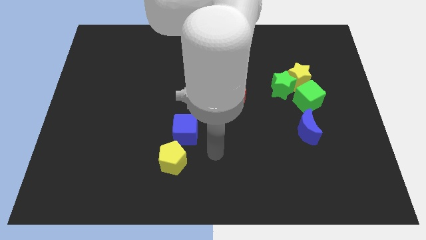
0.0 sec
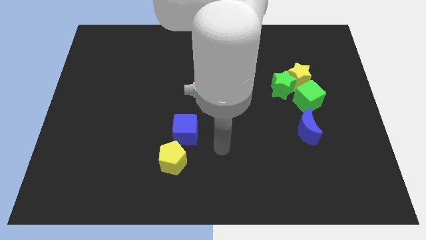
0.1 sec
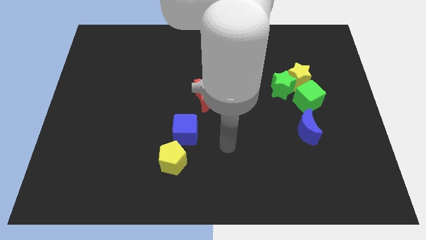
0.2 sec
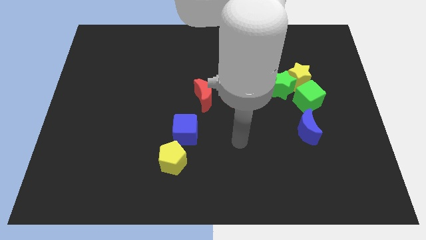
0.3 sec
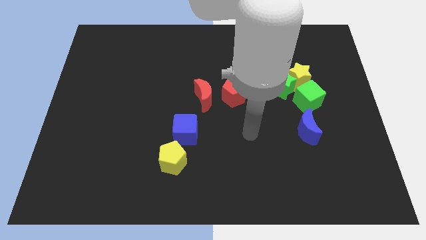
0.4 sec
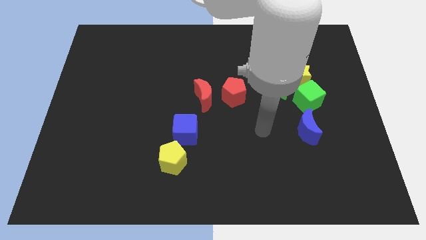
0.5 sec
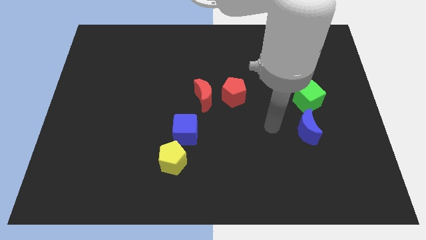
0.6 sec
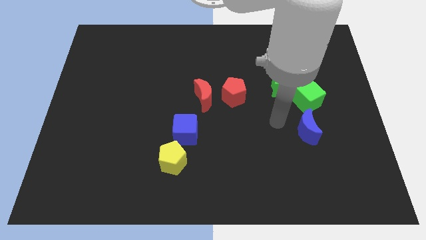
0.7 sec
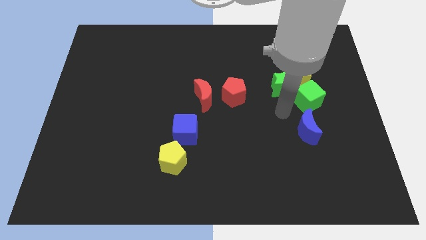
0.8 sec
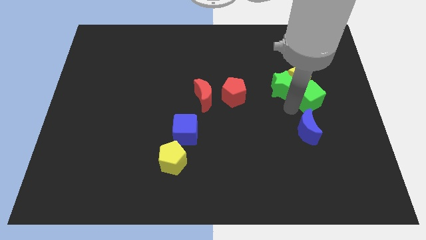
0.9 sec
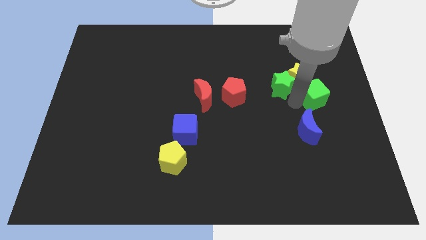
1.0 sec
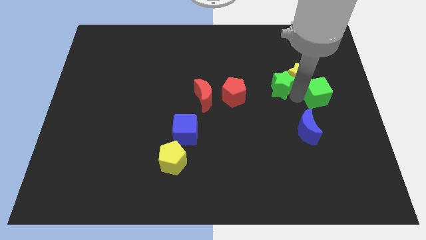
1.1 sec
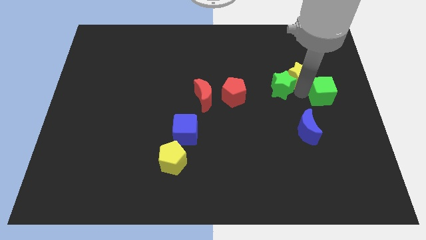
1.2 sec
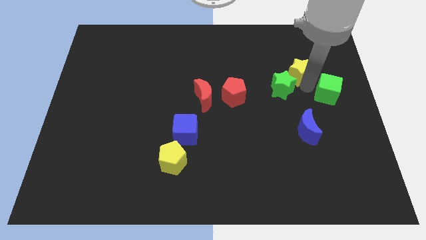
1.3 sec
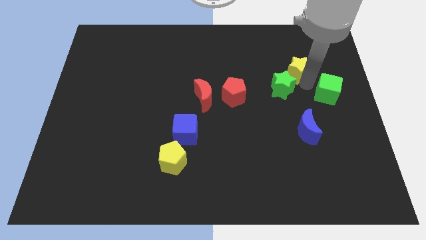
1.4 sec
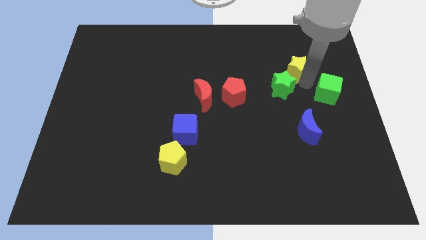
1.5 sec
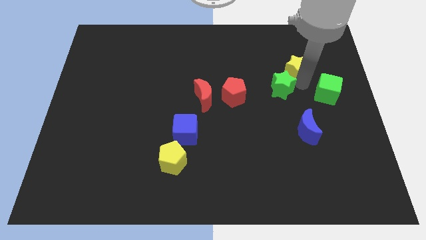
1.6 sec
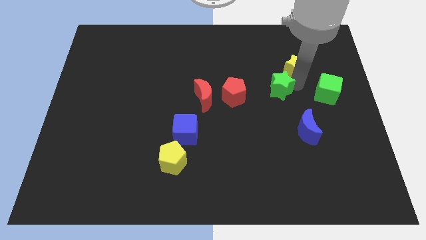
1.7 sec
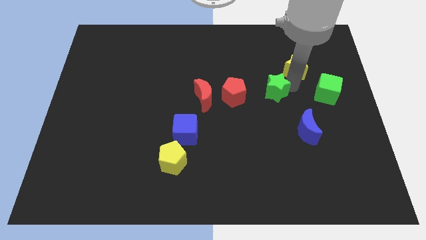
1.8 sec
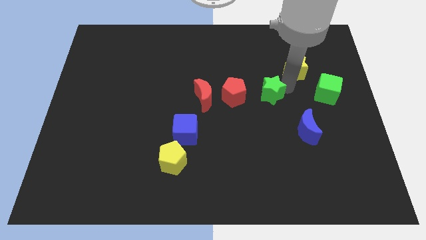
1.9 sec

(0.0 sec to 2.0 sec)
pull the green star apart from the yellow star and green cube

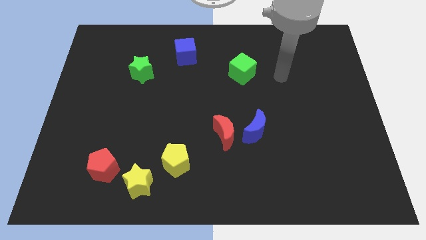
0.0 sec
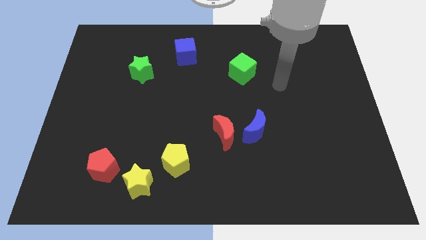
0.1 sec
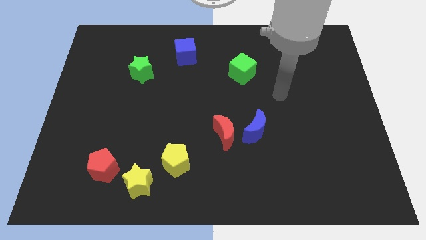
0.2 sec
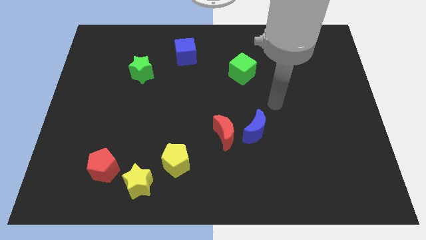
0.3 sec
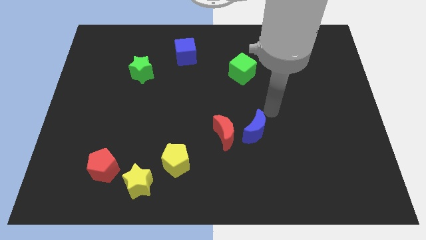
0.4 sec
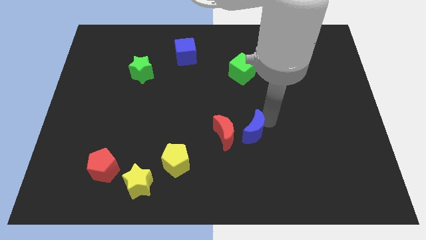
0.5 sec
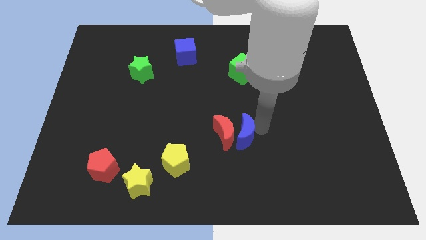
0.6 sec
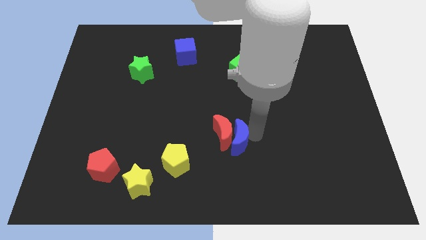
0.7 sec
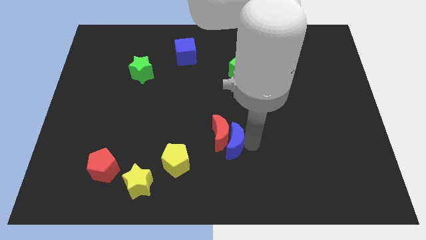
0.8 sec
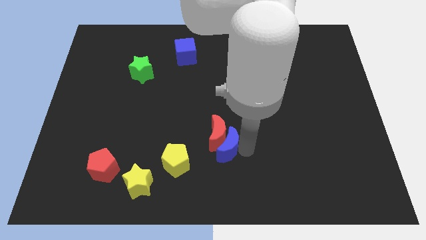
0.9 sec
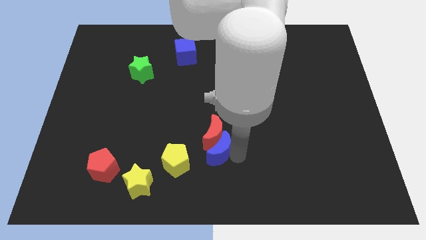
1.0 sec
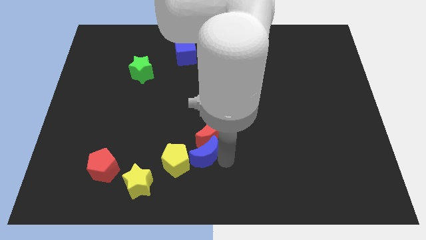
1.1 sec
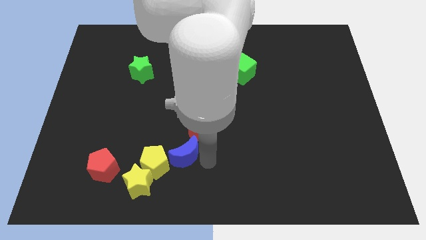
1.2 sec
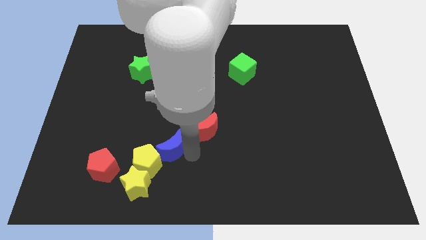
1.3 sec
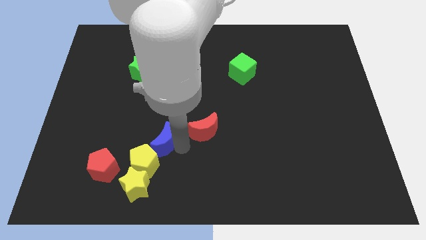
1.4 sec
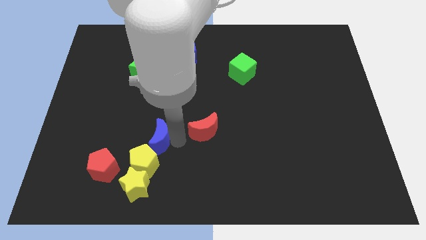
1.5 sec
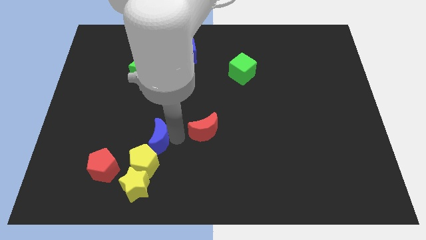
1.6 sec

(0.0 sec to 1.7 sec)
pull the red moon apart from the blue moon

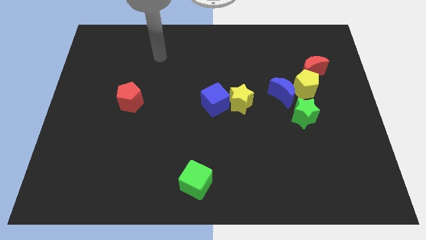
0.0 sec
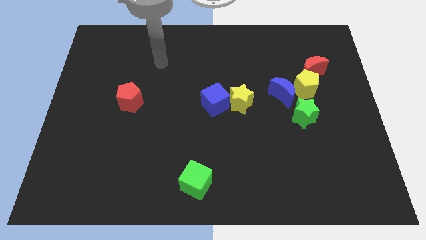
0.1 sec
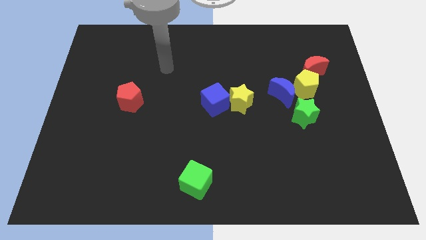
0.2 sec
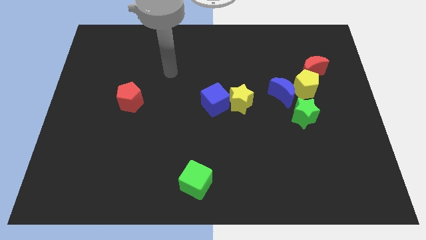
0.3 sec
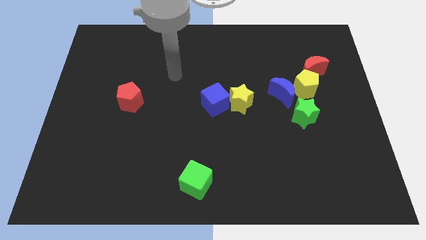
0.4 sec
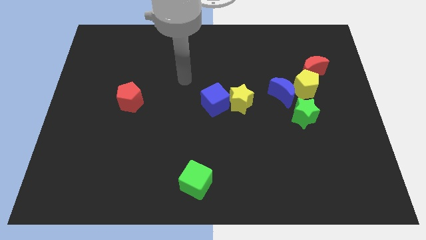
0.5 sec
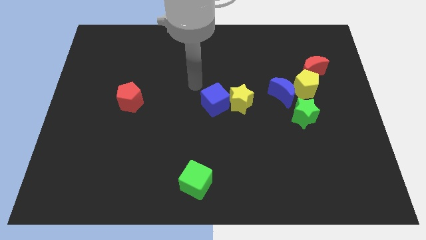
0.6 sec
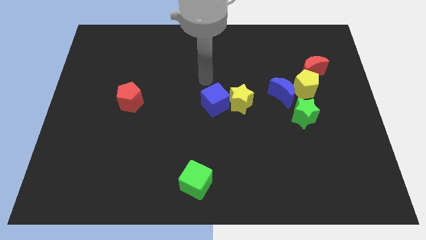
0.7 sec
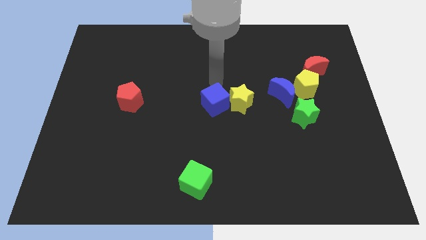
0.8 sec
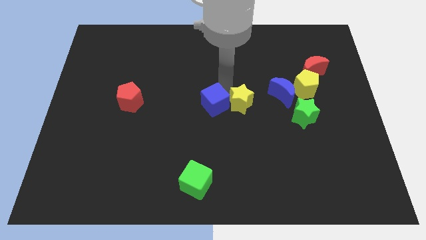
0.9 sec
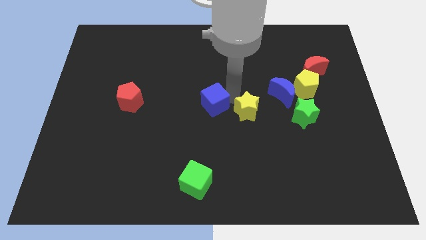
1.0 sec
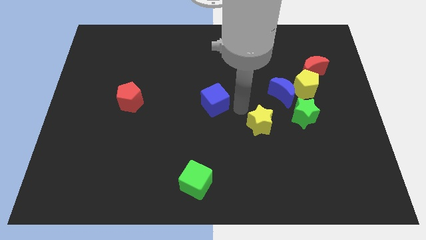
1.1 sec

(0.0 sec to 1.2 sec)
pull the blue cube apart from the yellow star

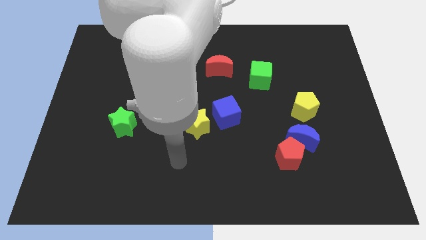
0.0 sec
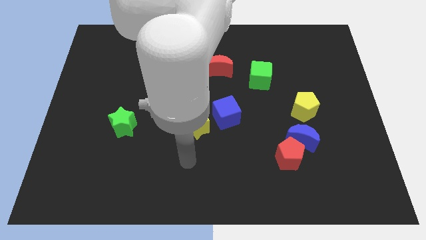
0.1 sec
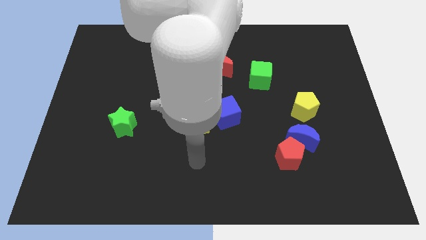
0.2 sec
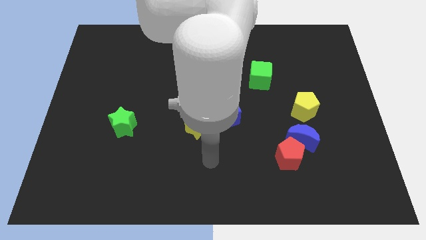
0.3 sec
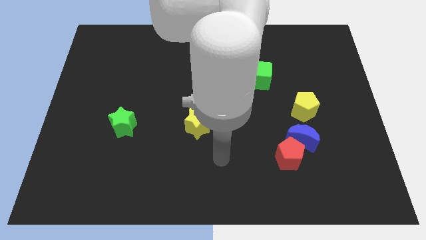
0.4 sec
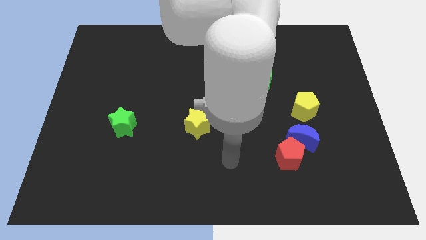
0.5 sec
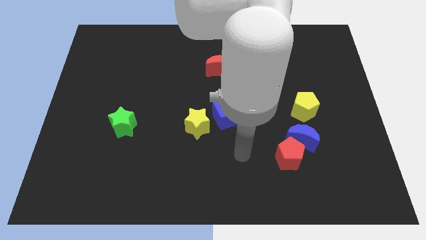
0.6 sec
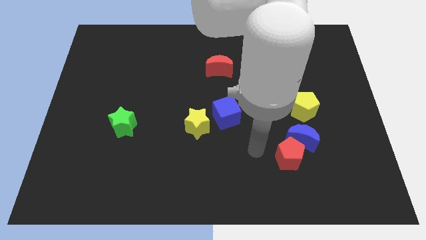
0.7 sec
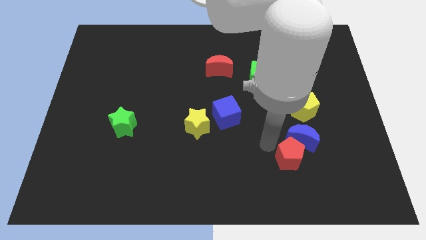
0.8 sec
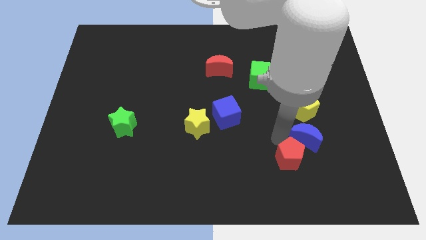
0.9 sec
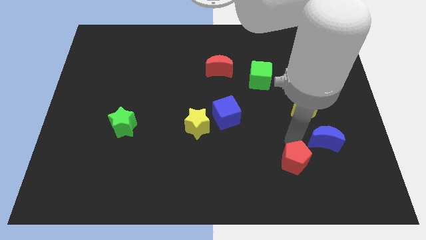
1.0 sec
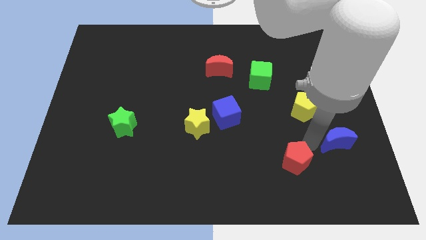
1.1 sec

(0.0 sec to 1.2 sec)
separate the red pentagon from the blue moon

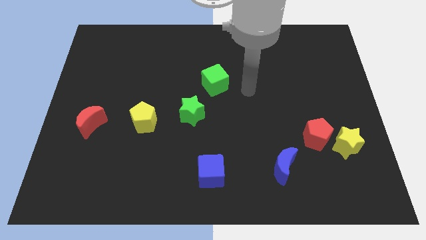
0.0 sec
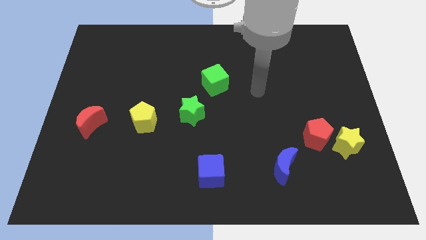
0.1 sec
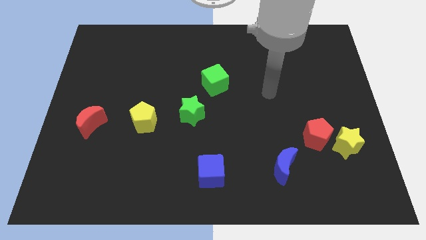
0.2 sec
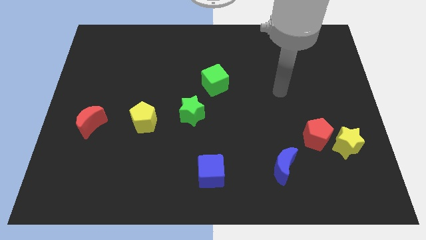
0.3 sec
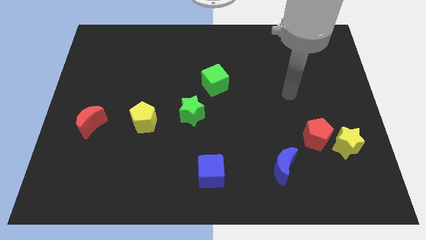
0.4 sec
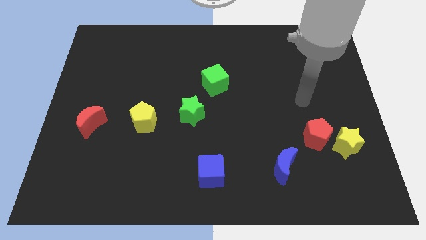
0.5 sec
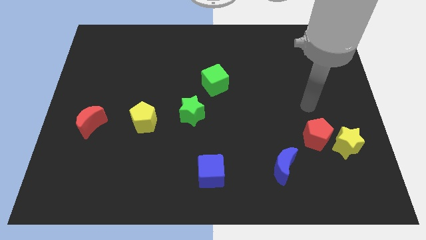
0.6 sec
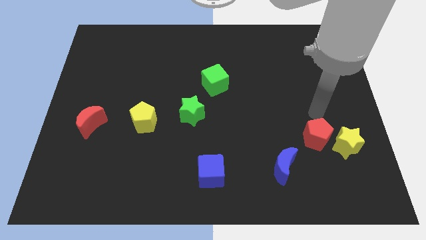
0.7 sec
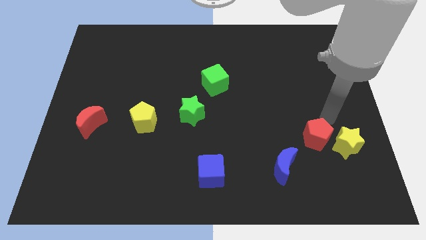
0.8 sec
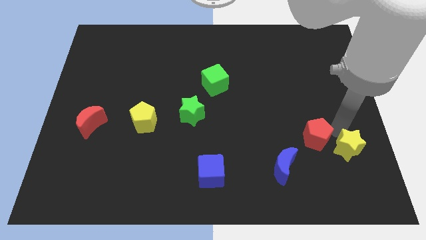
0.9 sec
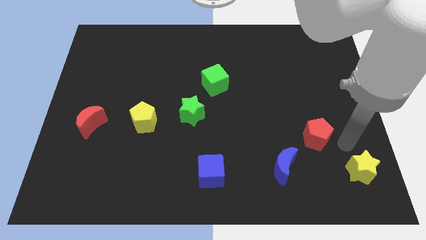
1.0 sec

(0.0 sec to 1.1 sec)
pull the red pentagon apart from the yellow star

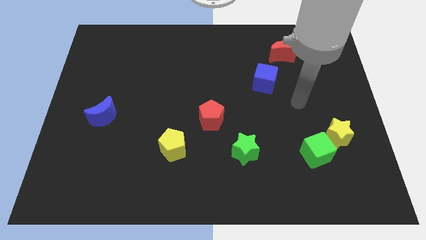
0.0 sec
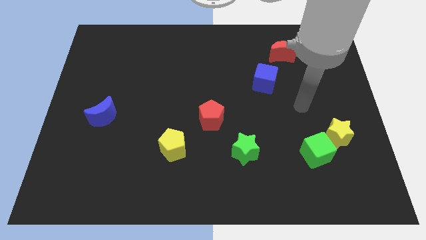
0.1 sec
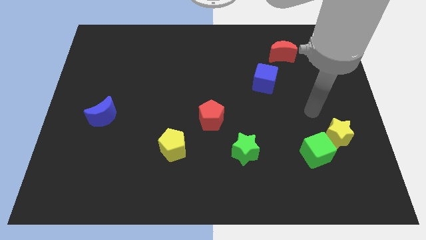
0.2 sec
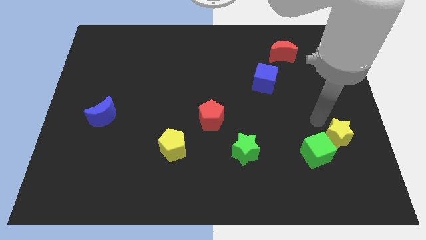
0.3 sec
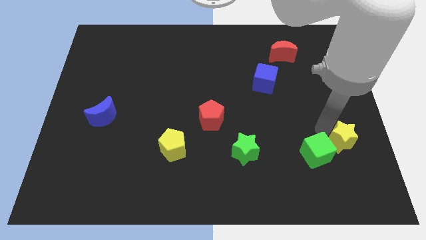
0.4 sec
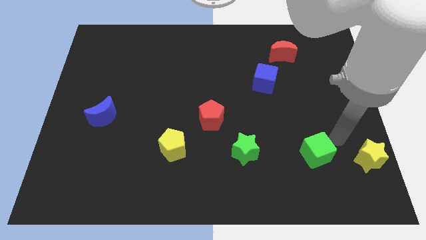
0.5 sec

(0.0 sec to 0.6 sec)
separate the green cube from the yellow star

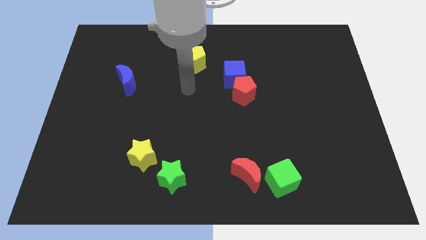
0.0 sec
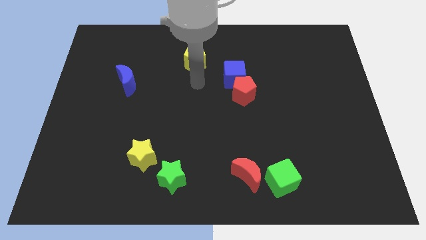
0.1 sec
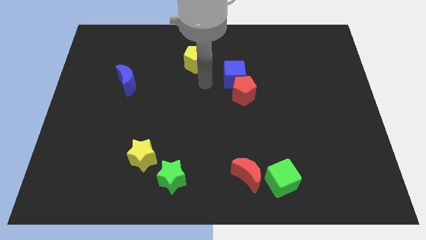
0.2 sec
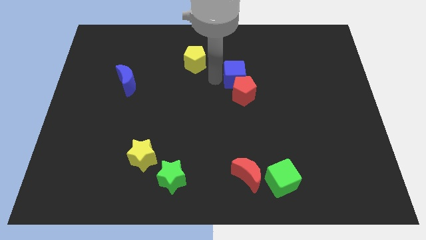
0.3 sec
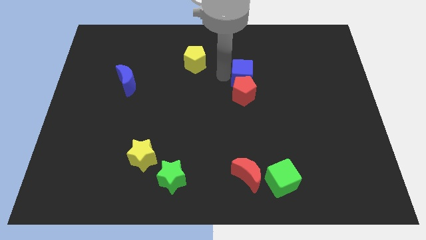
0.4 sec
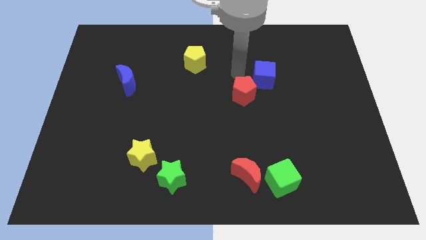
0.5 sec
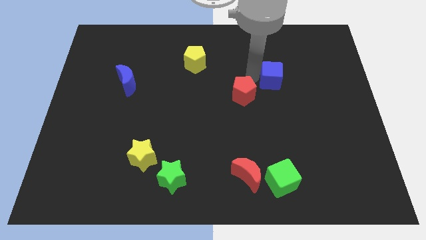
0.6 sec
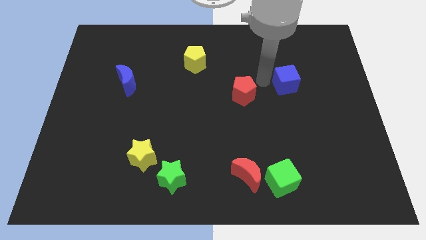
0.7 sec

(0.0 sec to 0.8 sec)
separate the red pentagon from the blue cube

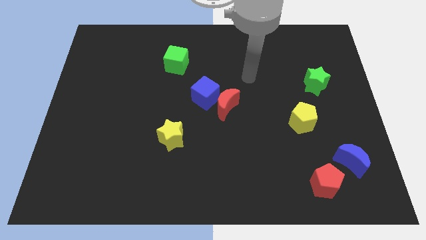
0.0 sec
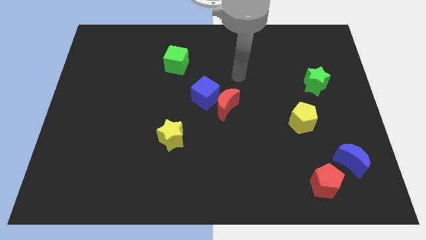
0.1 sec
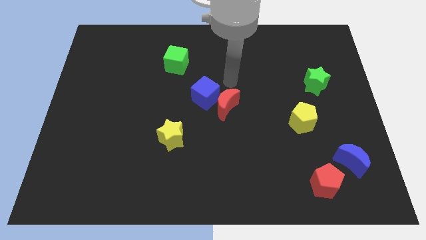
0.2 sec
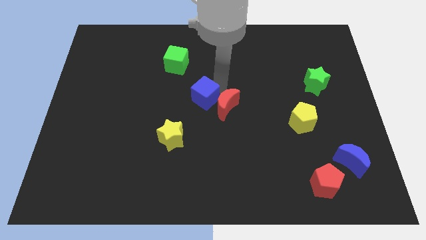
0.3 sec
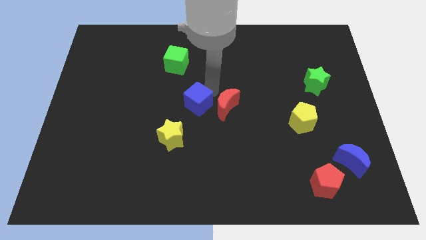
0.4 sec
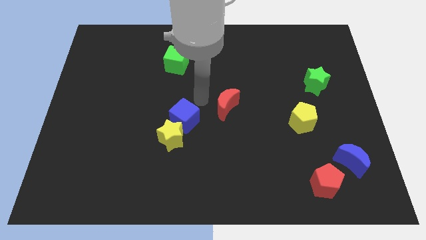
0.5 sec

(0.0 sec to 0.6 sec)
pull the red moon apart from the blue cube

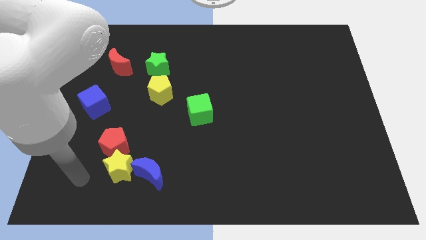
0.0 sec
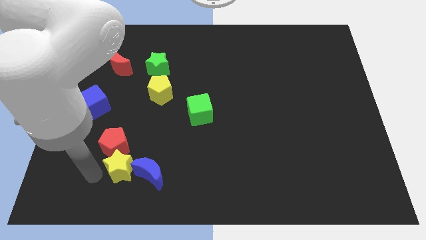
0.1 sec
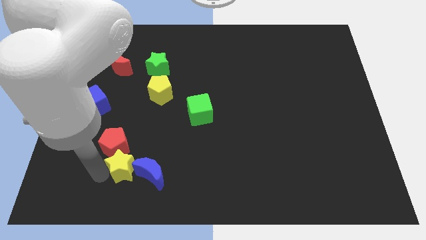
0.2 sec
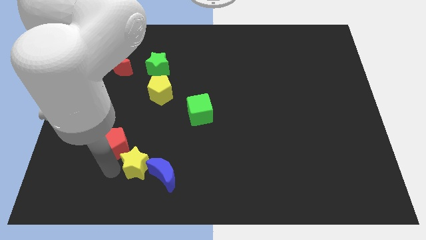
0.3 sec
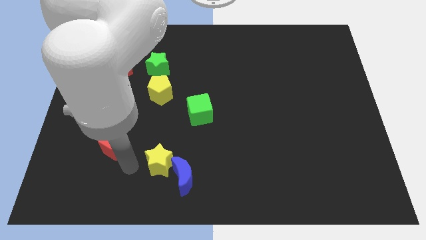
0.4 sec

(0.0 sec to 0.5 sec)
separate the red pentagon from the yellow star
